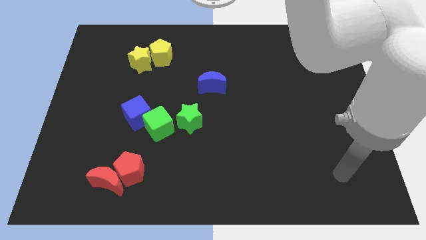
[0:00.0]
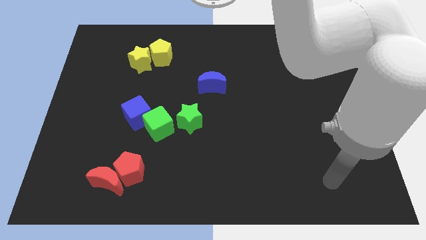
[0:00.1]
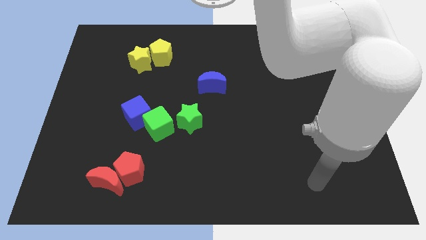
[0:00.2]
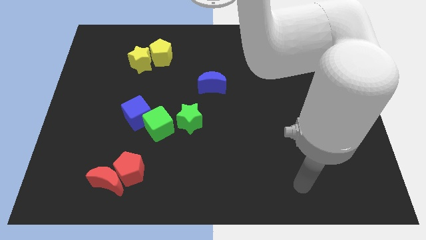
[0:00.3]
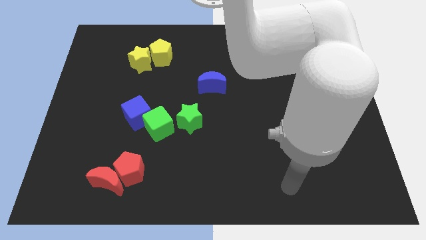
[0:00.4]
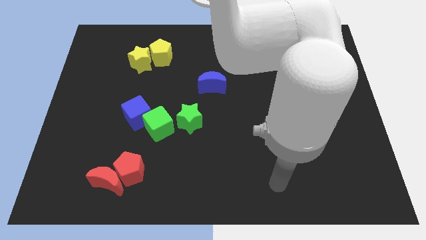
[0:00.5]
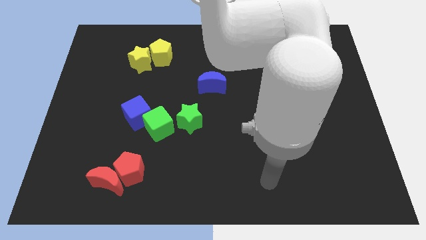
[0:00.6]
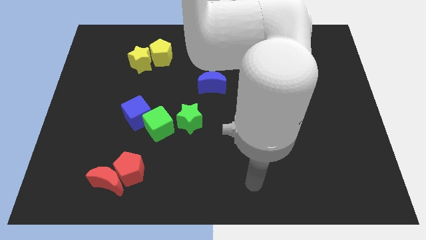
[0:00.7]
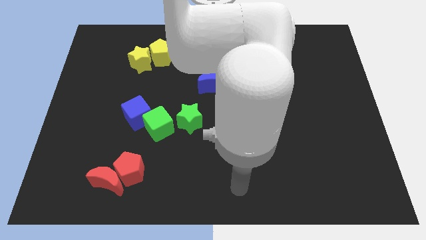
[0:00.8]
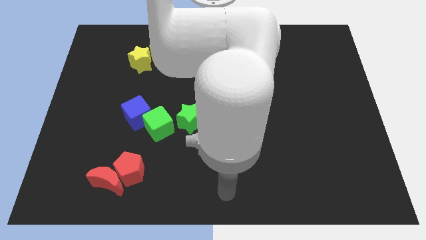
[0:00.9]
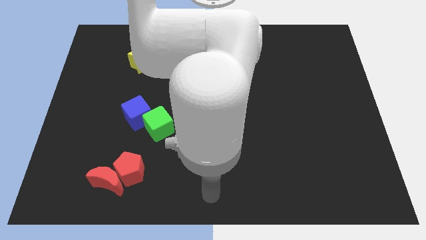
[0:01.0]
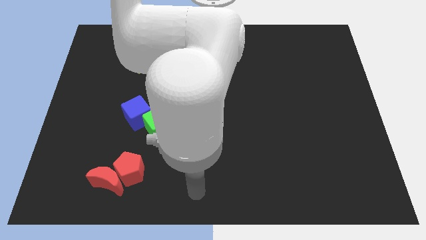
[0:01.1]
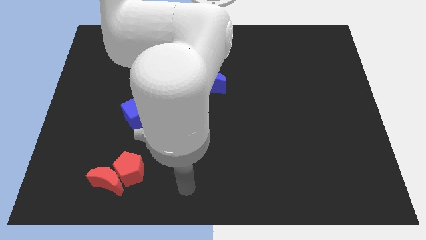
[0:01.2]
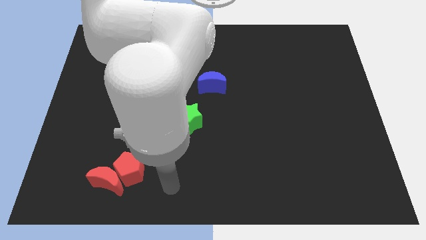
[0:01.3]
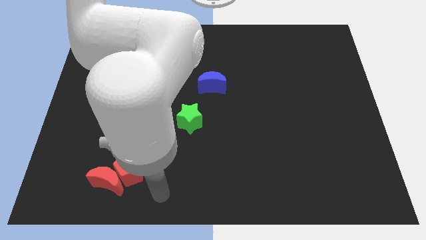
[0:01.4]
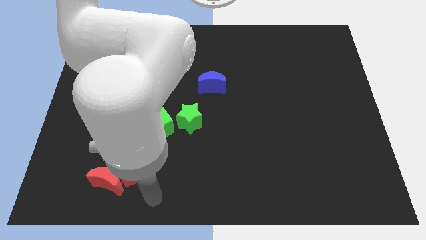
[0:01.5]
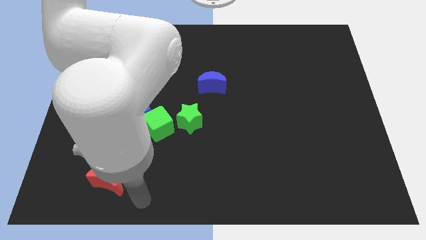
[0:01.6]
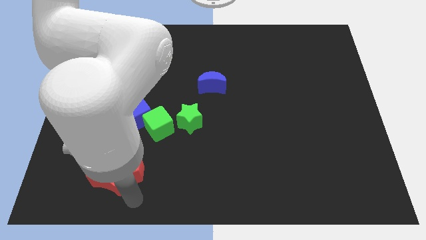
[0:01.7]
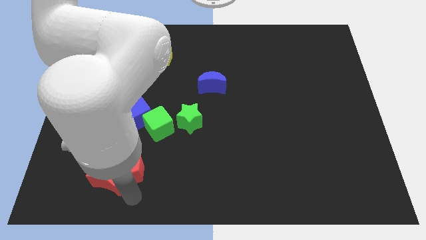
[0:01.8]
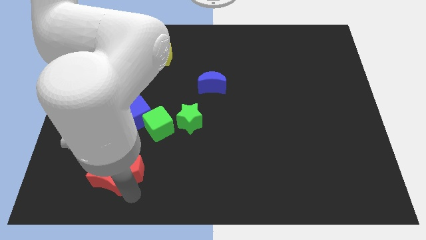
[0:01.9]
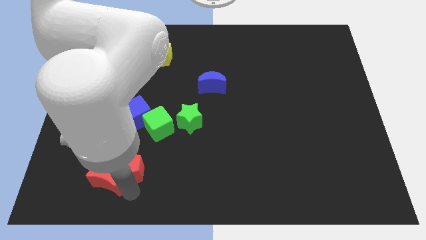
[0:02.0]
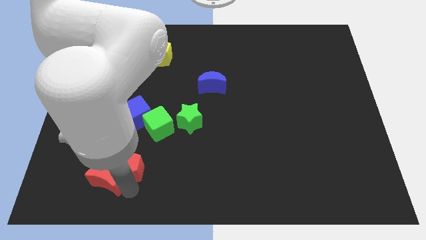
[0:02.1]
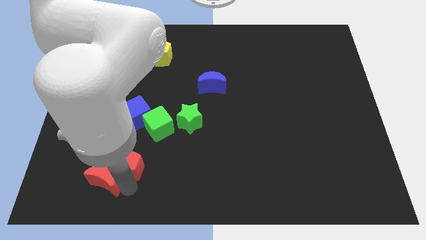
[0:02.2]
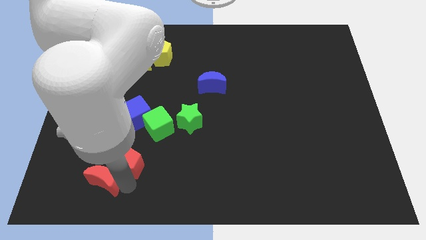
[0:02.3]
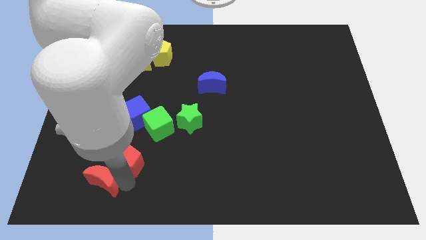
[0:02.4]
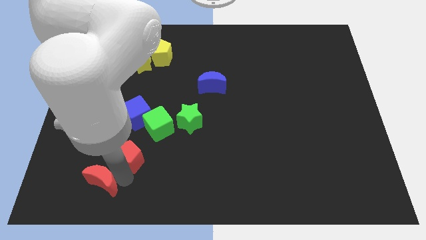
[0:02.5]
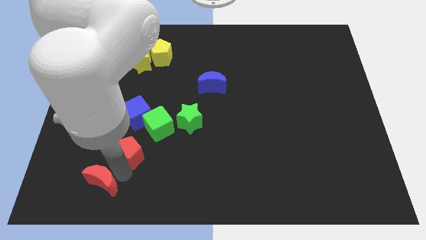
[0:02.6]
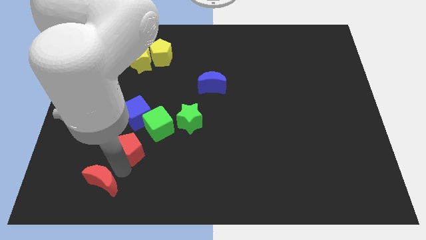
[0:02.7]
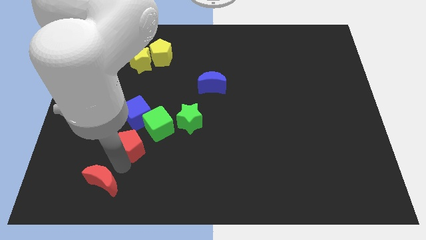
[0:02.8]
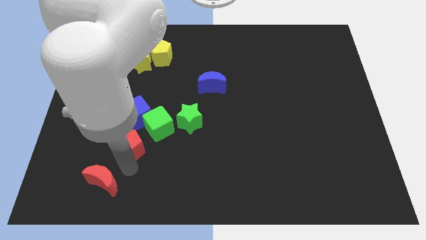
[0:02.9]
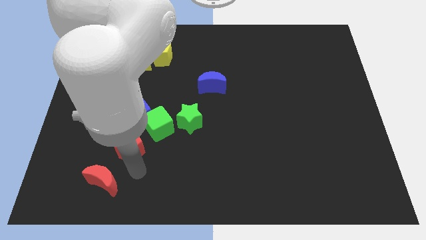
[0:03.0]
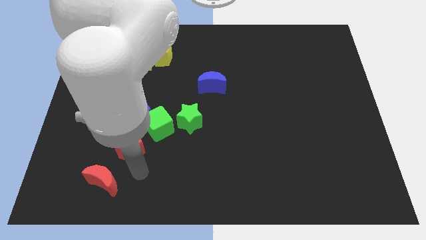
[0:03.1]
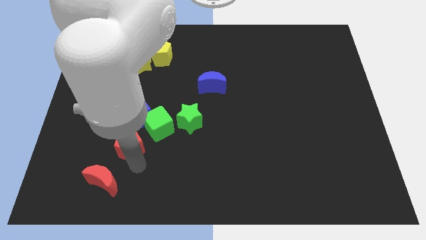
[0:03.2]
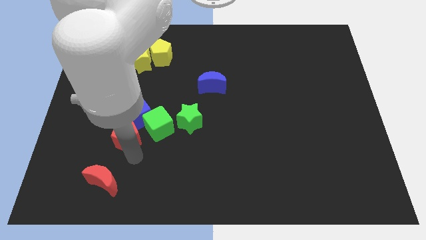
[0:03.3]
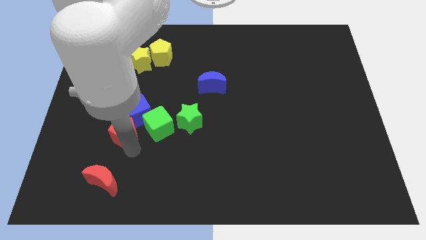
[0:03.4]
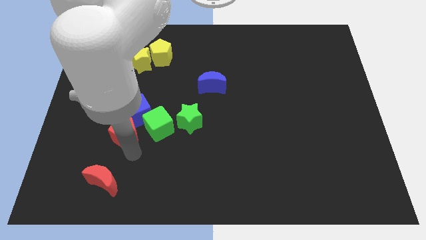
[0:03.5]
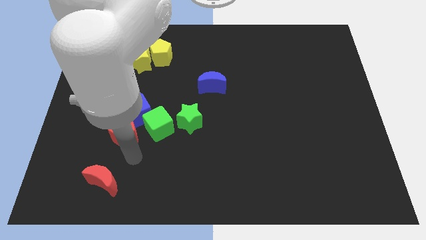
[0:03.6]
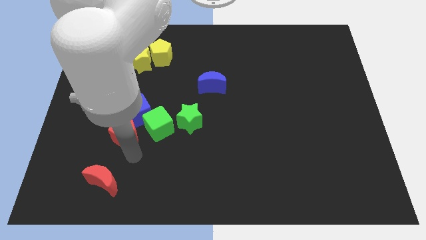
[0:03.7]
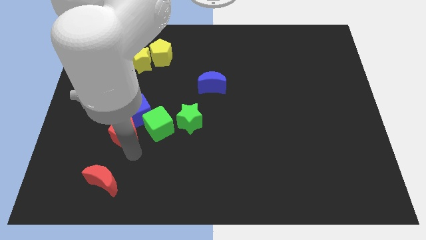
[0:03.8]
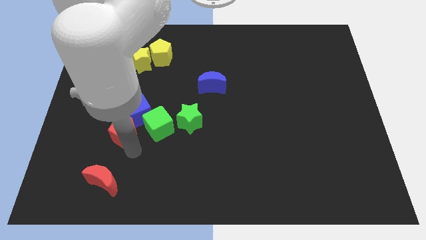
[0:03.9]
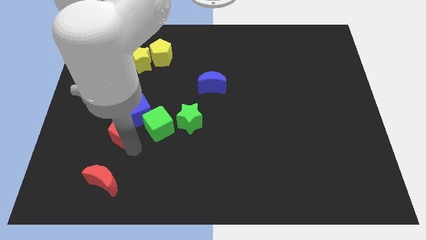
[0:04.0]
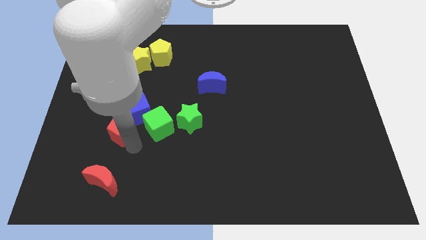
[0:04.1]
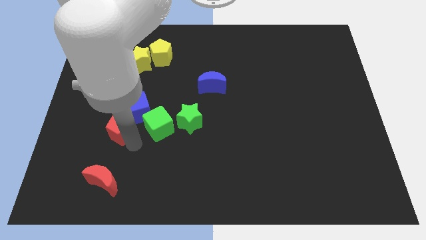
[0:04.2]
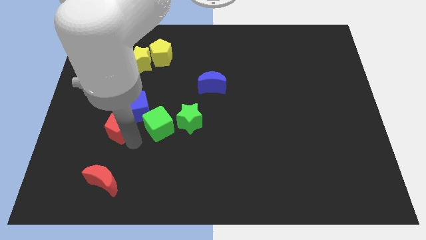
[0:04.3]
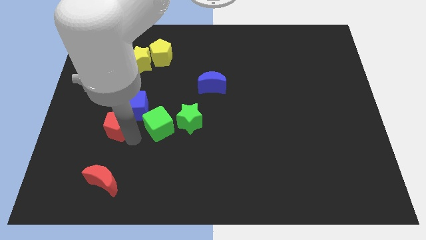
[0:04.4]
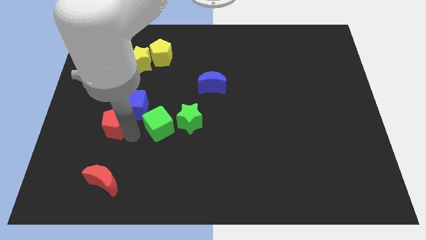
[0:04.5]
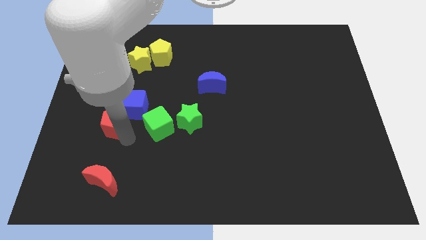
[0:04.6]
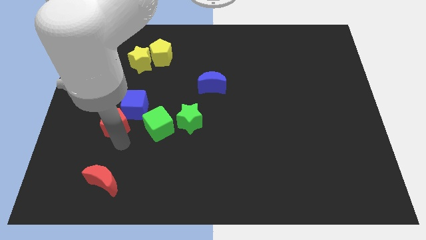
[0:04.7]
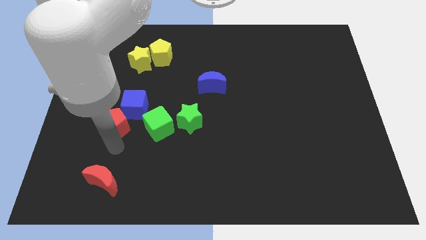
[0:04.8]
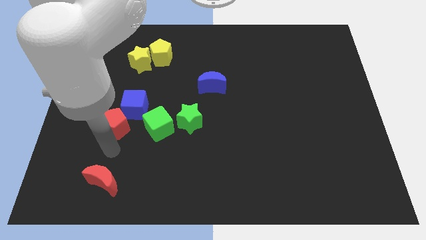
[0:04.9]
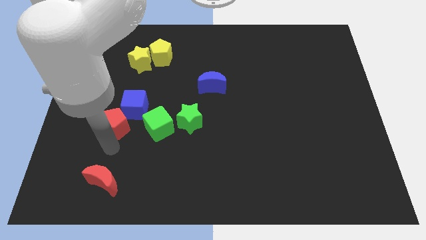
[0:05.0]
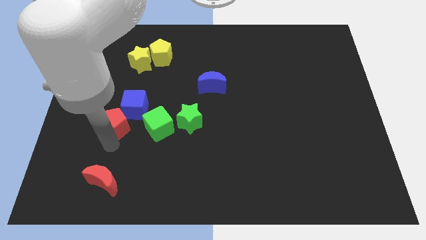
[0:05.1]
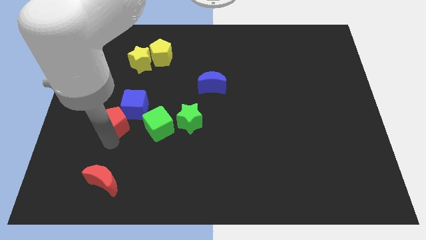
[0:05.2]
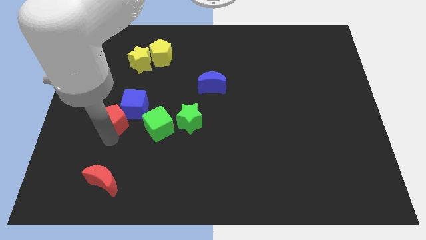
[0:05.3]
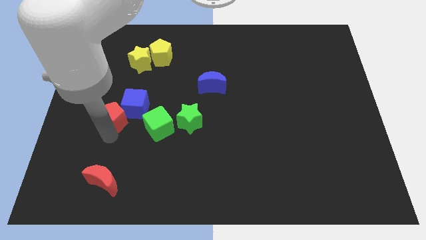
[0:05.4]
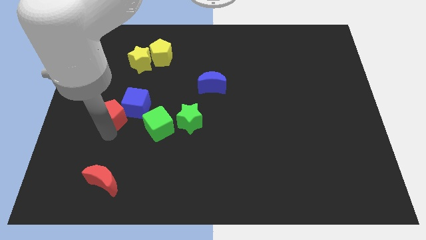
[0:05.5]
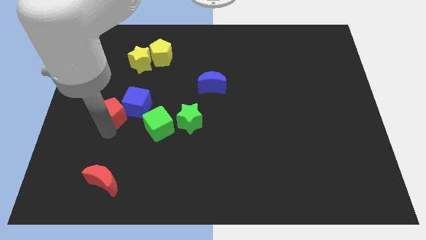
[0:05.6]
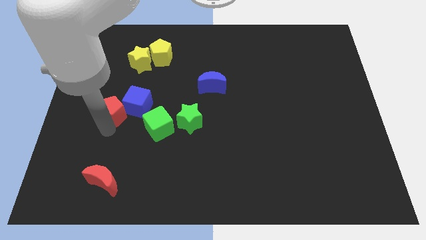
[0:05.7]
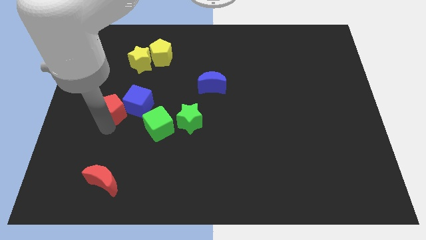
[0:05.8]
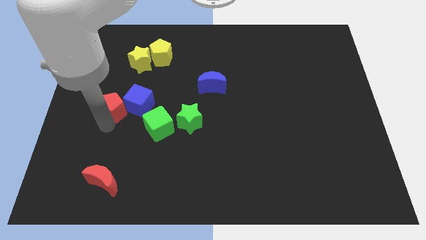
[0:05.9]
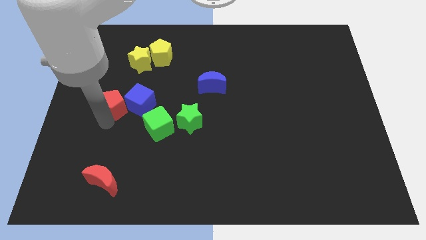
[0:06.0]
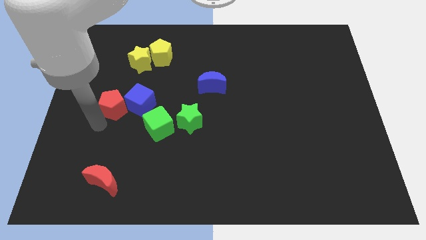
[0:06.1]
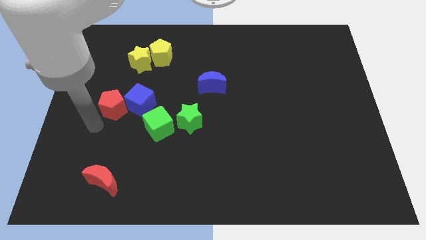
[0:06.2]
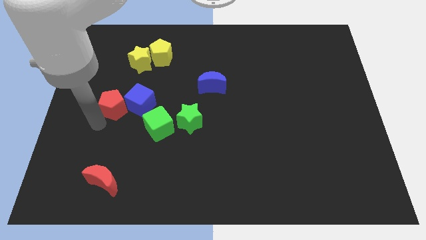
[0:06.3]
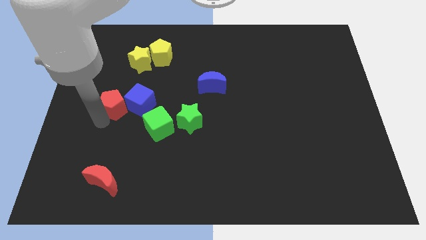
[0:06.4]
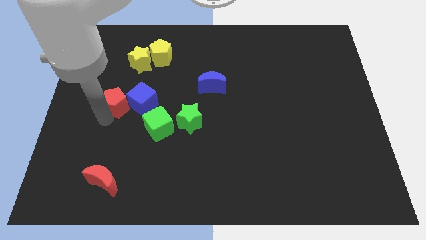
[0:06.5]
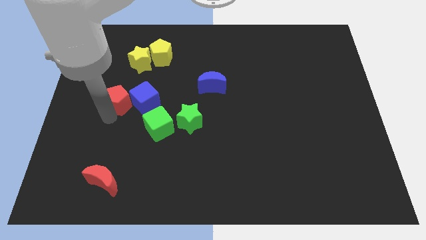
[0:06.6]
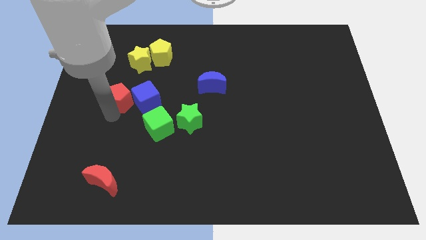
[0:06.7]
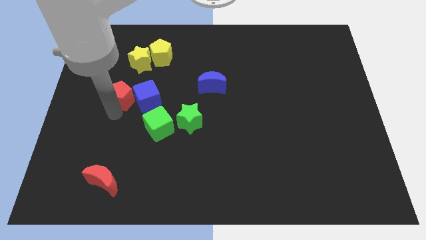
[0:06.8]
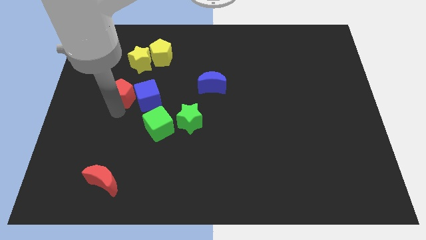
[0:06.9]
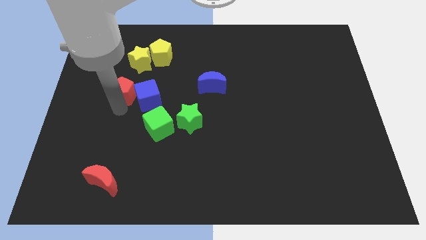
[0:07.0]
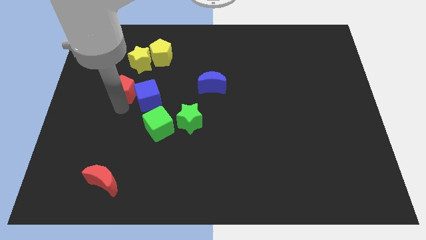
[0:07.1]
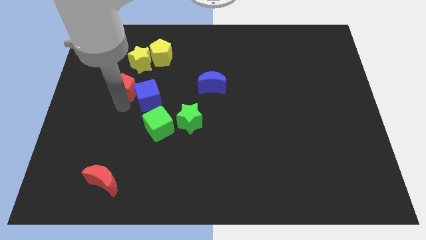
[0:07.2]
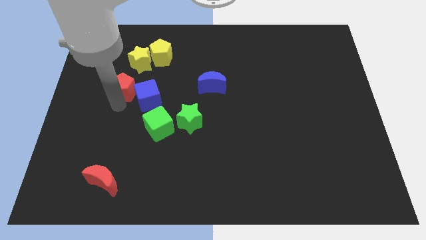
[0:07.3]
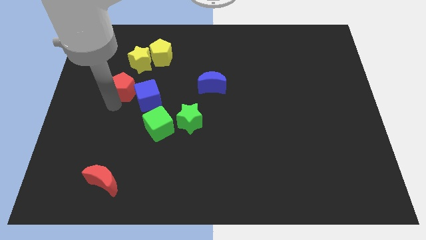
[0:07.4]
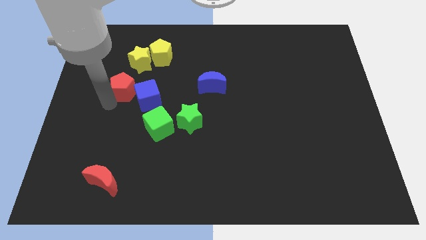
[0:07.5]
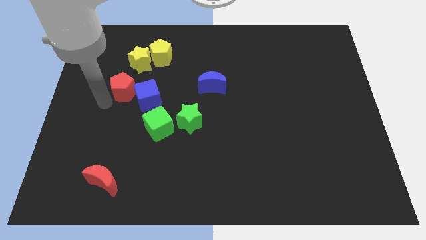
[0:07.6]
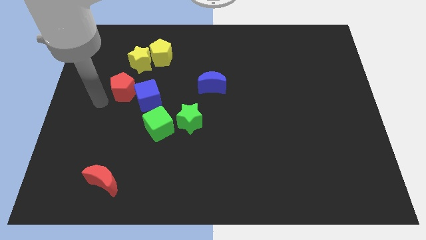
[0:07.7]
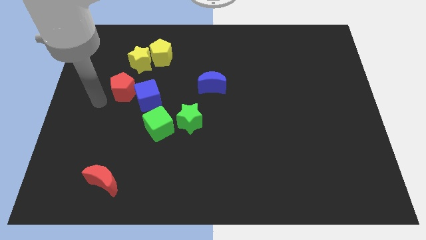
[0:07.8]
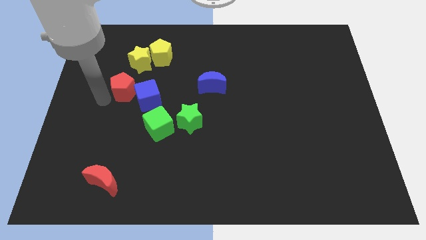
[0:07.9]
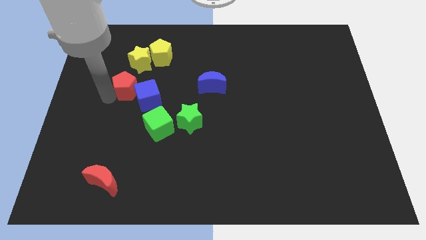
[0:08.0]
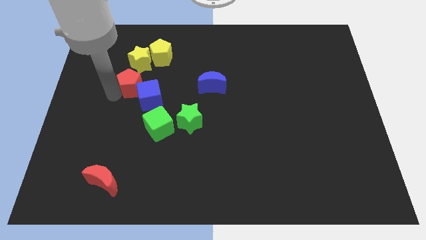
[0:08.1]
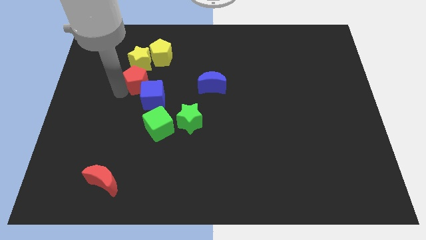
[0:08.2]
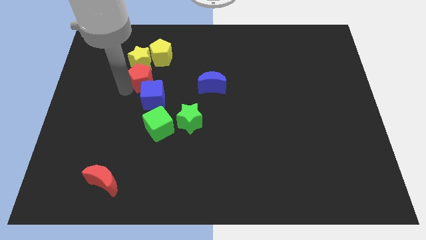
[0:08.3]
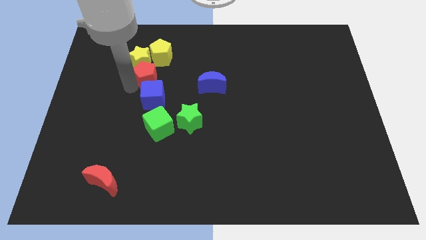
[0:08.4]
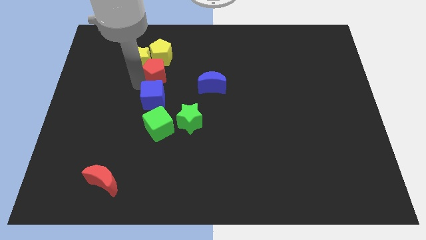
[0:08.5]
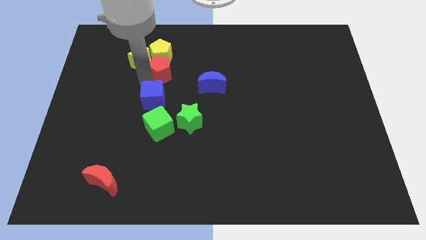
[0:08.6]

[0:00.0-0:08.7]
slide the red pentagon next to the yellow pentagon
